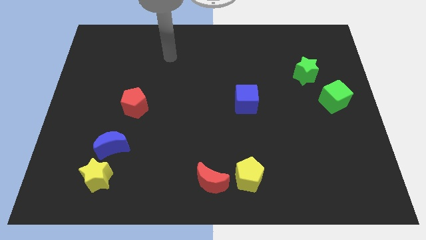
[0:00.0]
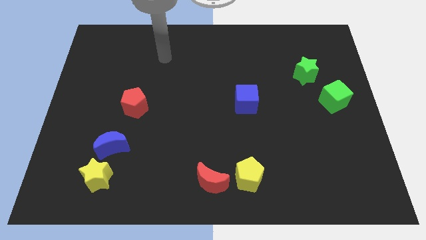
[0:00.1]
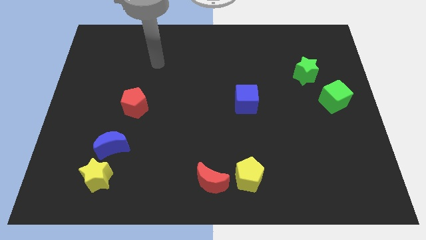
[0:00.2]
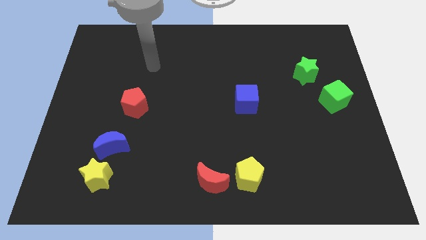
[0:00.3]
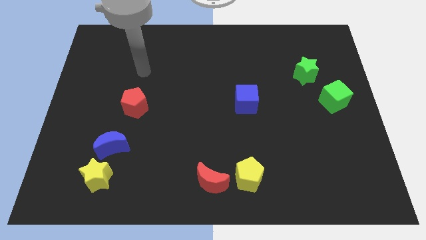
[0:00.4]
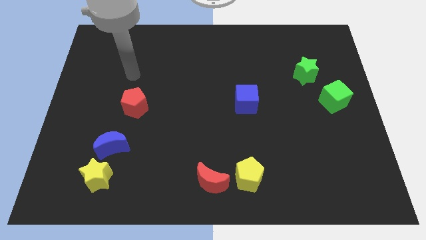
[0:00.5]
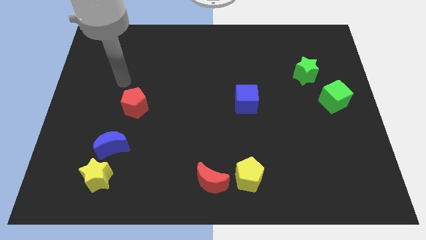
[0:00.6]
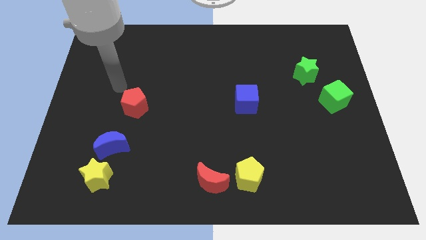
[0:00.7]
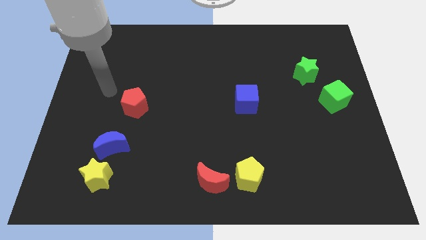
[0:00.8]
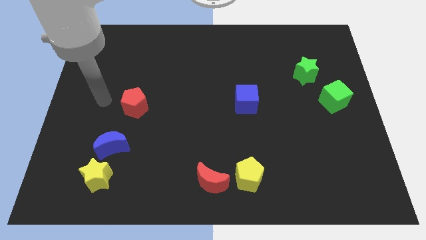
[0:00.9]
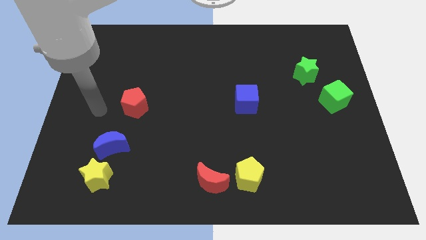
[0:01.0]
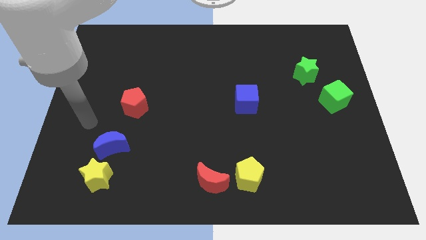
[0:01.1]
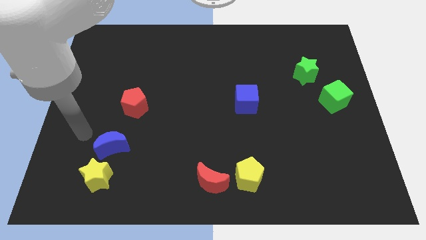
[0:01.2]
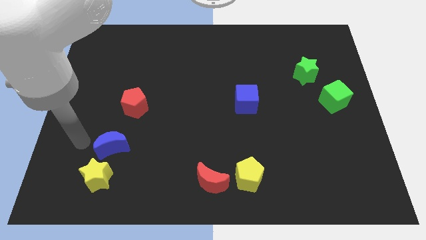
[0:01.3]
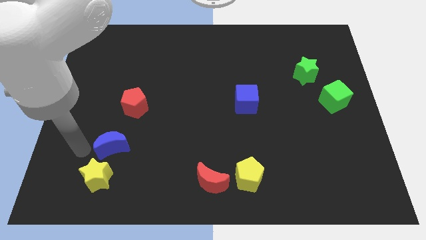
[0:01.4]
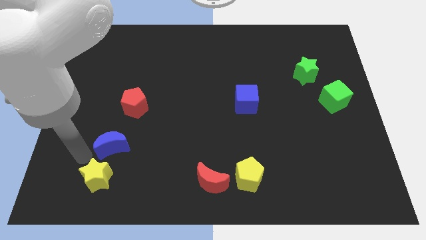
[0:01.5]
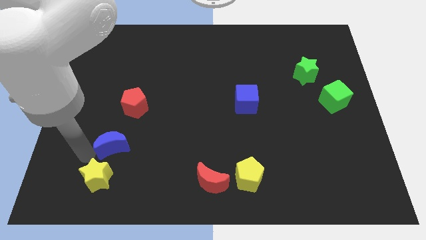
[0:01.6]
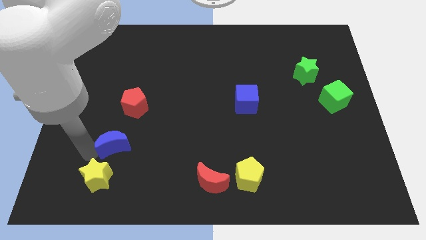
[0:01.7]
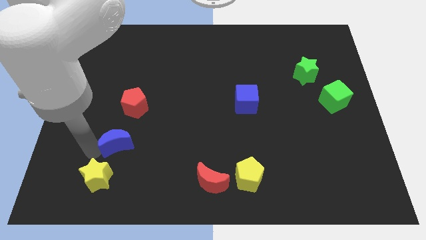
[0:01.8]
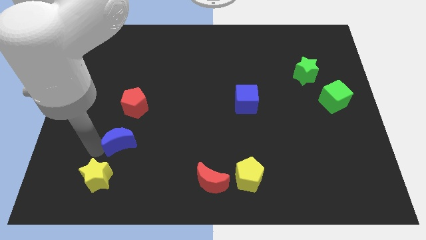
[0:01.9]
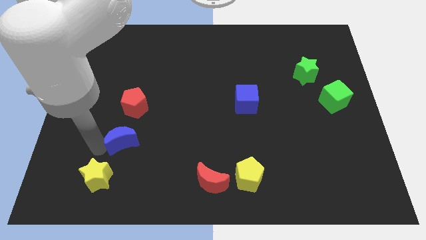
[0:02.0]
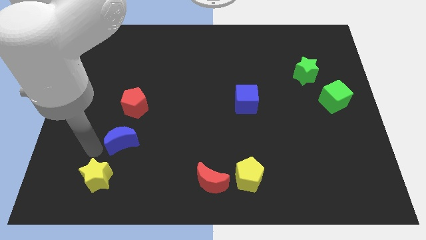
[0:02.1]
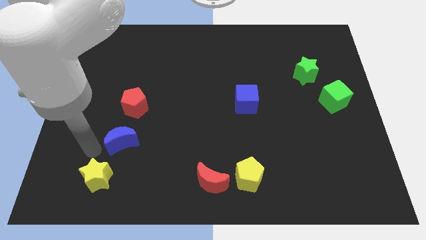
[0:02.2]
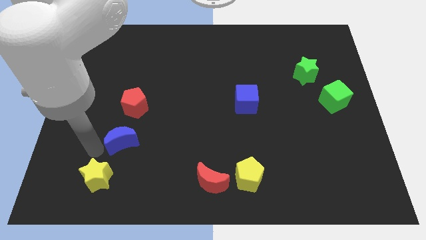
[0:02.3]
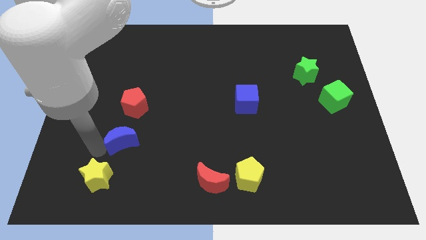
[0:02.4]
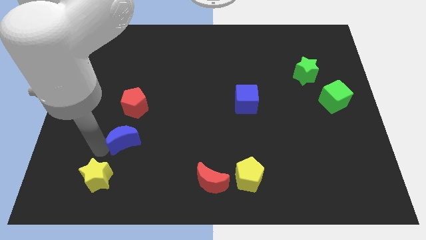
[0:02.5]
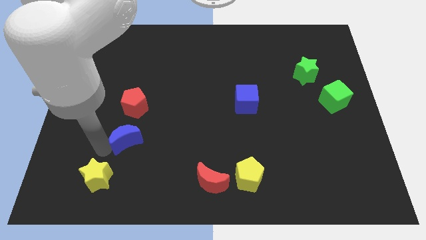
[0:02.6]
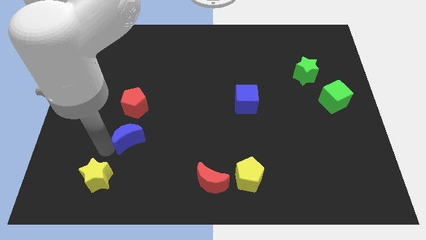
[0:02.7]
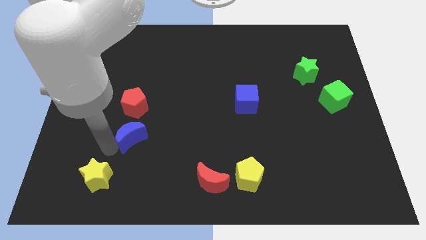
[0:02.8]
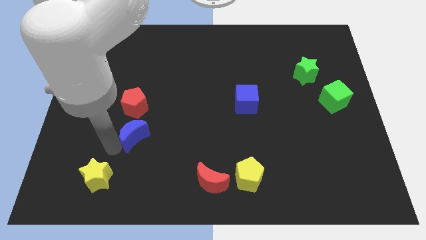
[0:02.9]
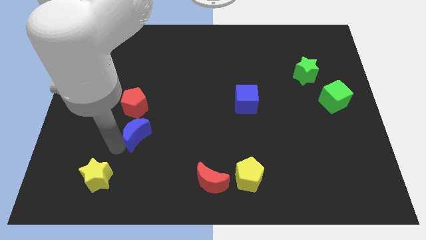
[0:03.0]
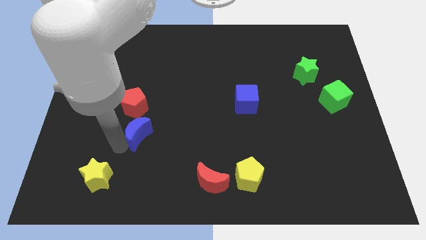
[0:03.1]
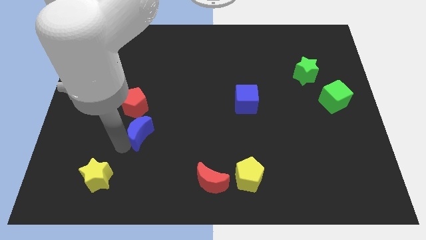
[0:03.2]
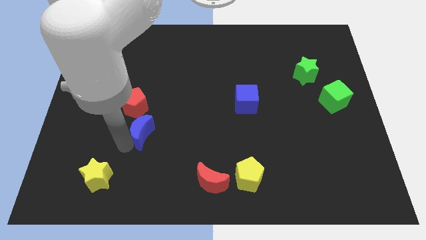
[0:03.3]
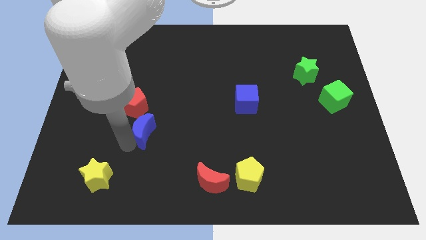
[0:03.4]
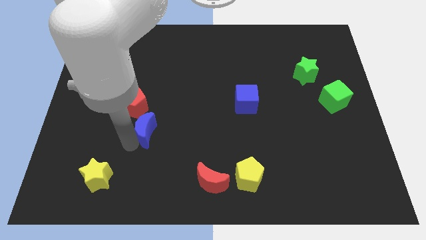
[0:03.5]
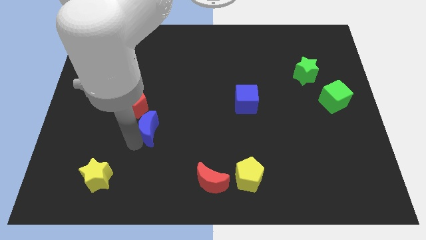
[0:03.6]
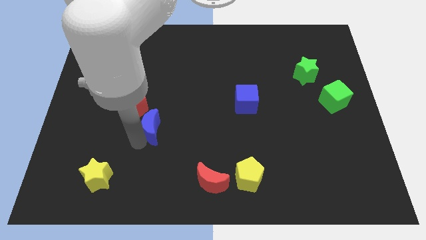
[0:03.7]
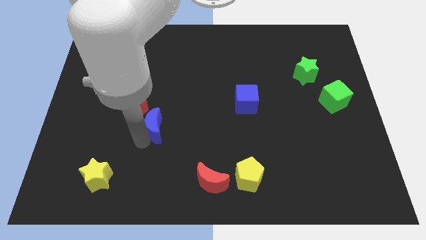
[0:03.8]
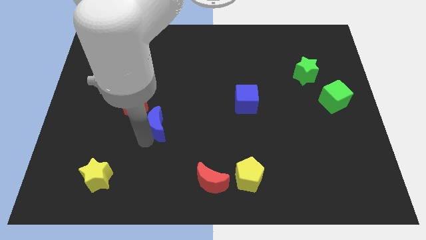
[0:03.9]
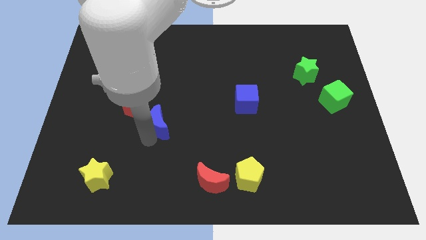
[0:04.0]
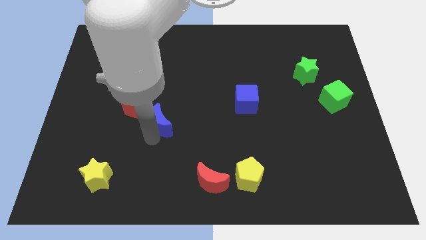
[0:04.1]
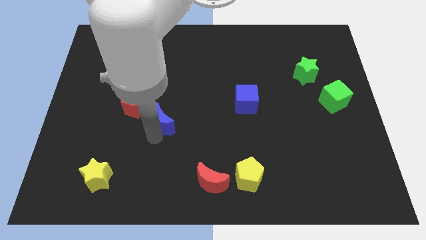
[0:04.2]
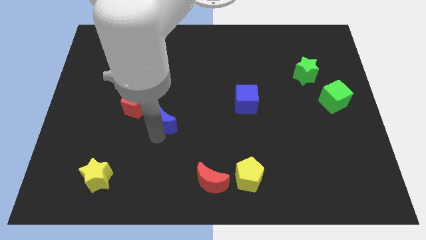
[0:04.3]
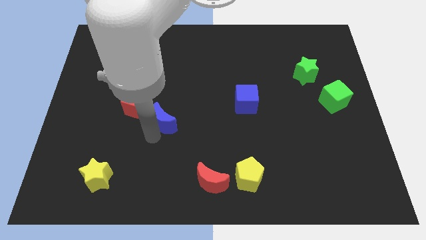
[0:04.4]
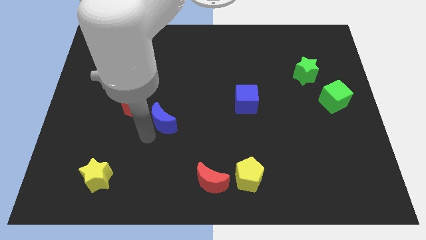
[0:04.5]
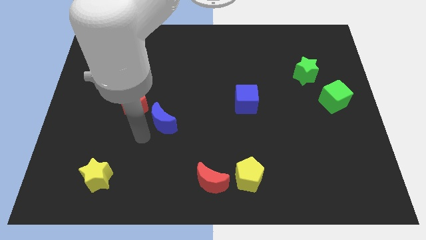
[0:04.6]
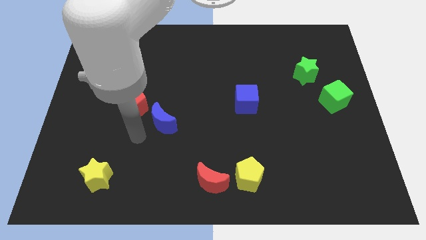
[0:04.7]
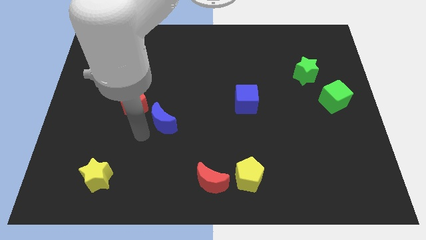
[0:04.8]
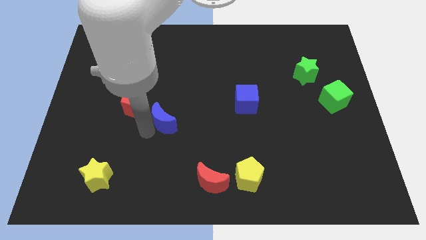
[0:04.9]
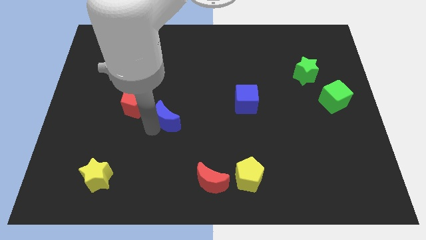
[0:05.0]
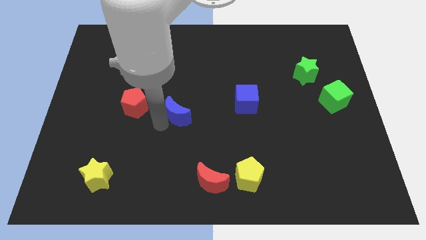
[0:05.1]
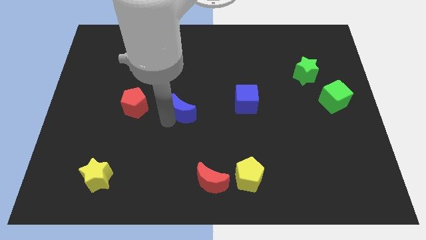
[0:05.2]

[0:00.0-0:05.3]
move the blue moon just left of the blue cube

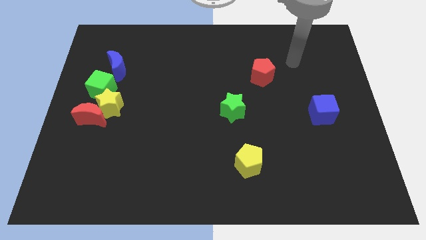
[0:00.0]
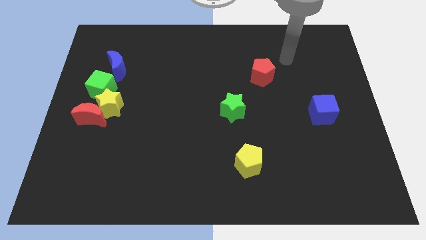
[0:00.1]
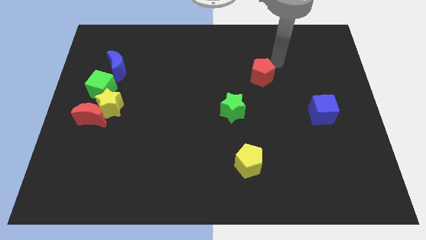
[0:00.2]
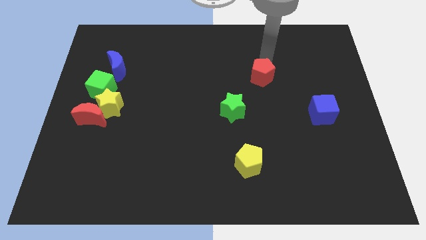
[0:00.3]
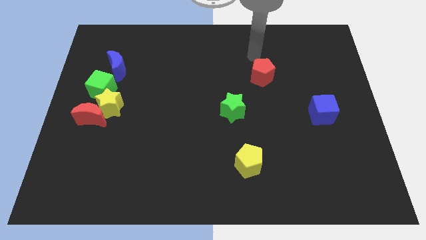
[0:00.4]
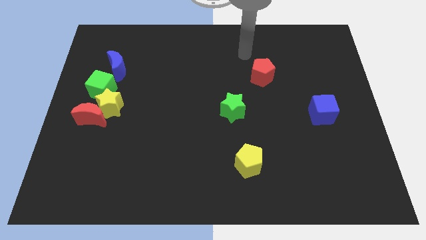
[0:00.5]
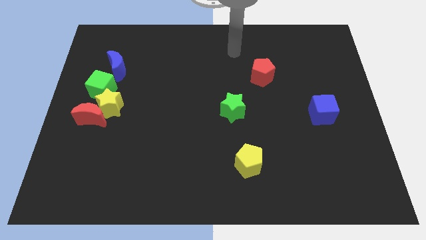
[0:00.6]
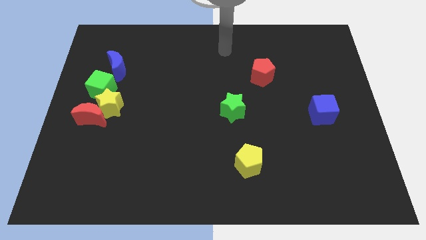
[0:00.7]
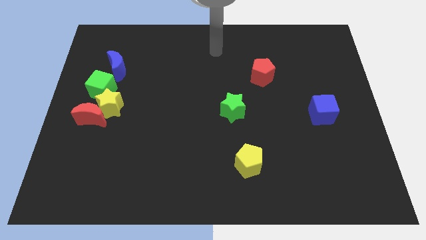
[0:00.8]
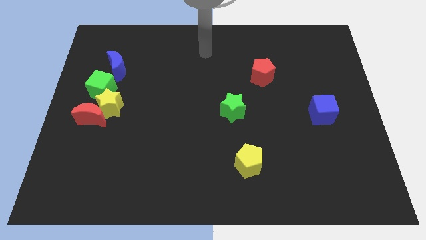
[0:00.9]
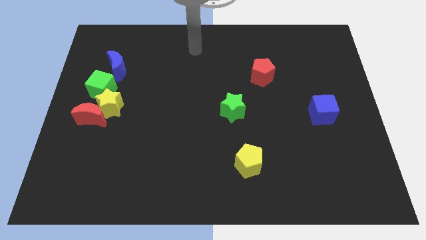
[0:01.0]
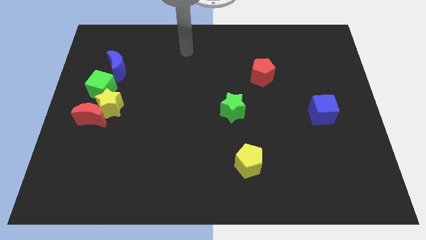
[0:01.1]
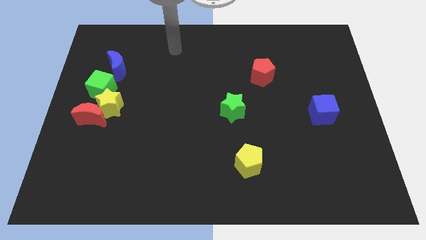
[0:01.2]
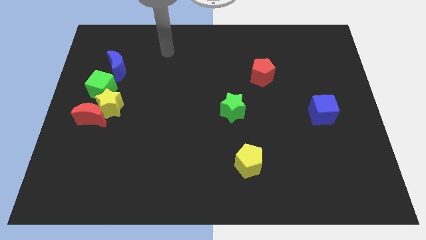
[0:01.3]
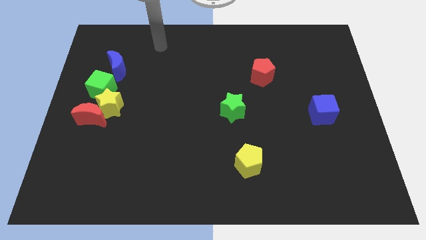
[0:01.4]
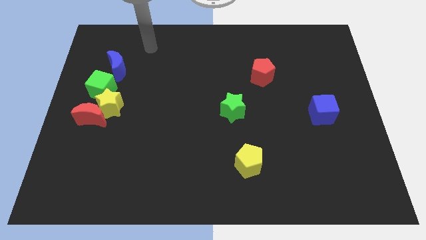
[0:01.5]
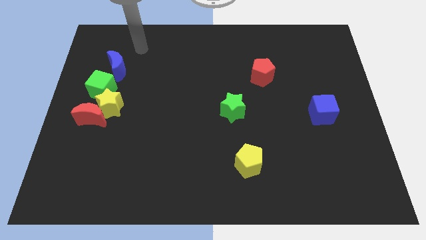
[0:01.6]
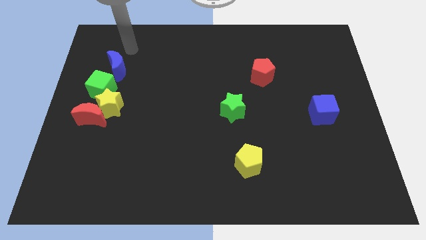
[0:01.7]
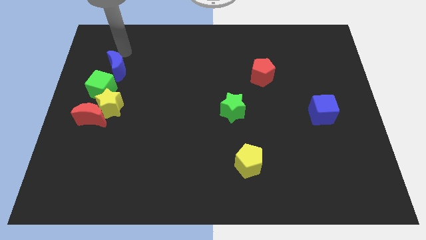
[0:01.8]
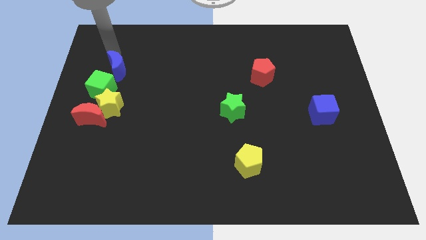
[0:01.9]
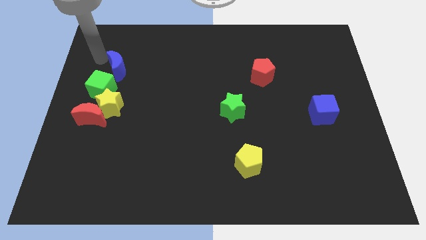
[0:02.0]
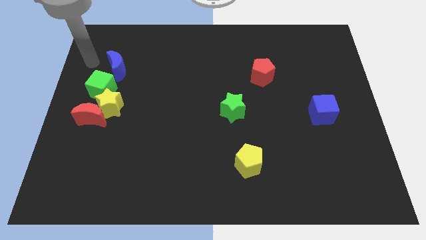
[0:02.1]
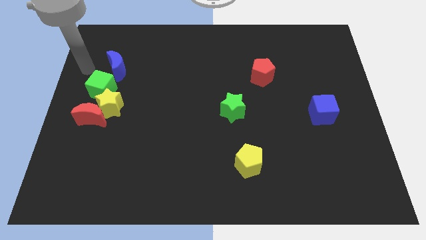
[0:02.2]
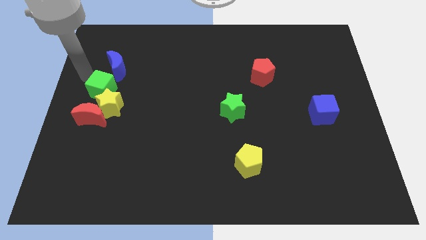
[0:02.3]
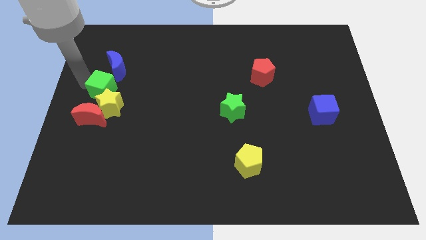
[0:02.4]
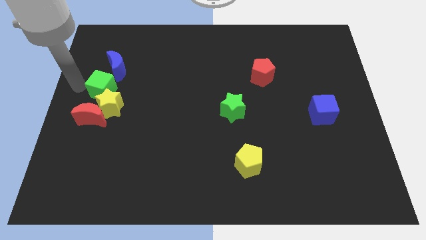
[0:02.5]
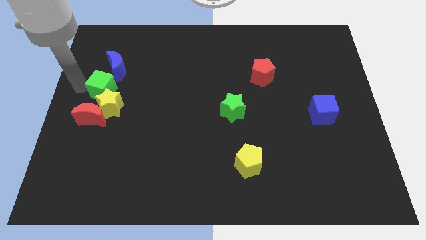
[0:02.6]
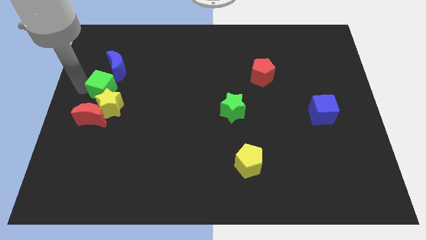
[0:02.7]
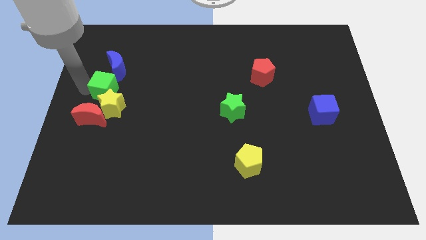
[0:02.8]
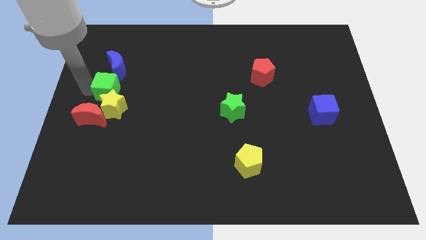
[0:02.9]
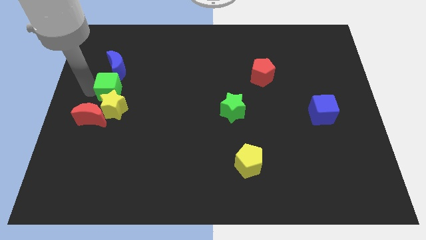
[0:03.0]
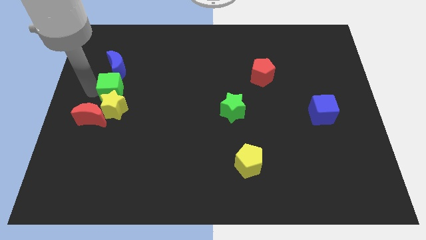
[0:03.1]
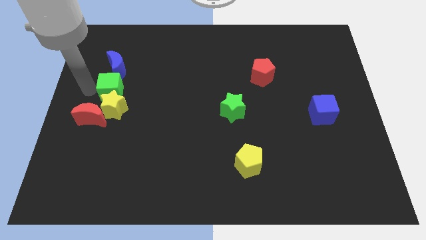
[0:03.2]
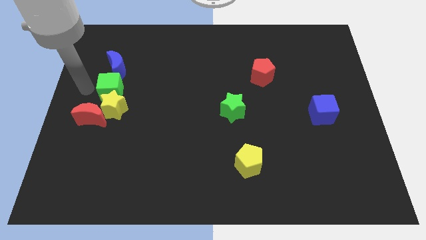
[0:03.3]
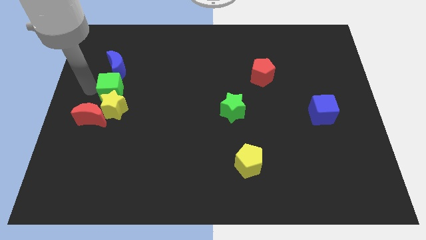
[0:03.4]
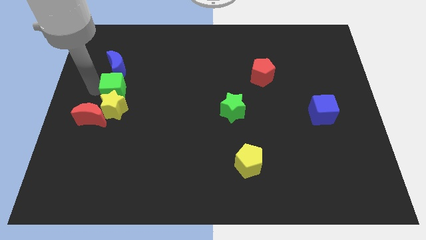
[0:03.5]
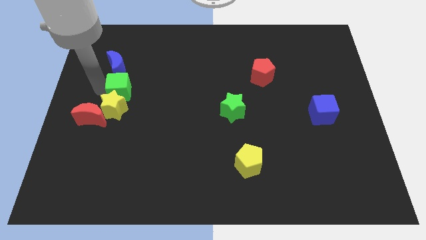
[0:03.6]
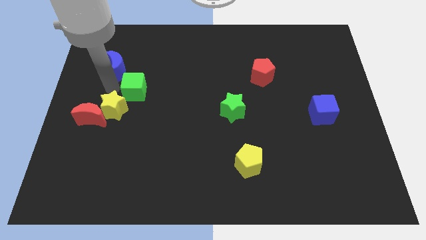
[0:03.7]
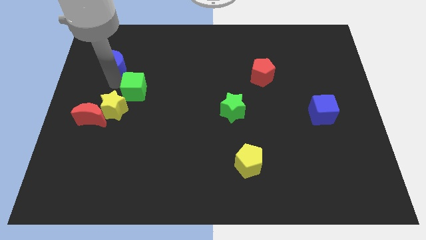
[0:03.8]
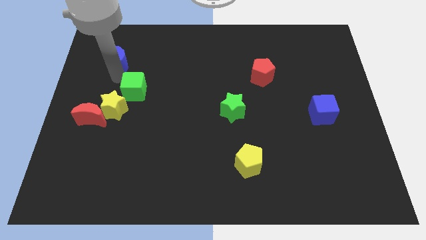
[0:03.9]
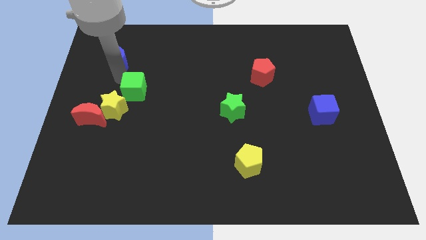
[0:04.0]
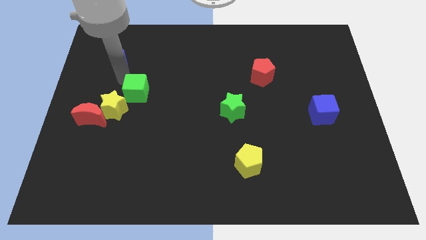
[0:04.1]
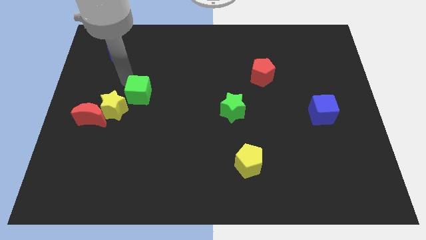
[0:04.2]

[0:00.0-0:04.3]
move the green cube right of the yellow star
